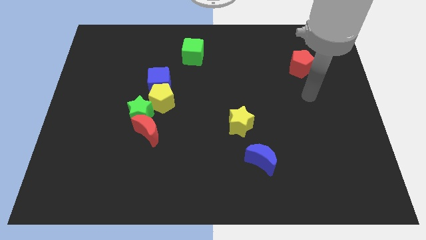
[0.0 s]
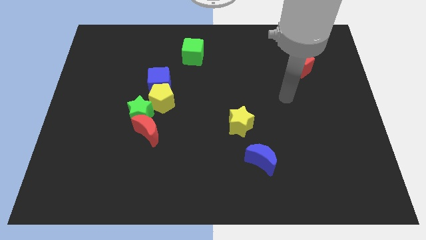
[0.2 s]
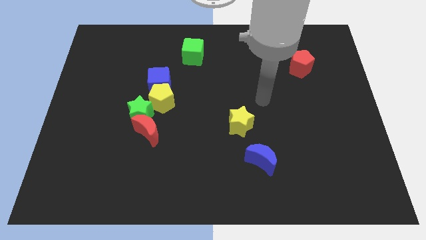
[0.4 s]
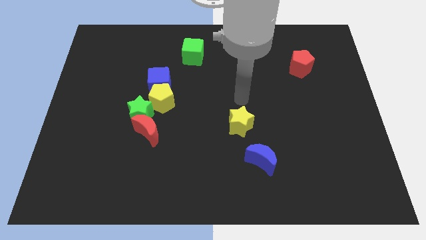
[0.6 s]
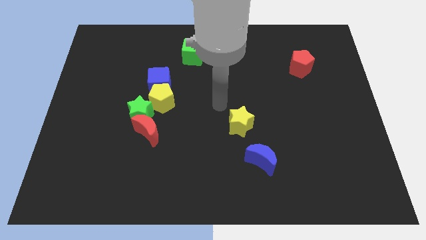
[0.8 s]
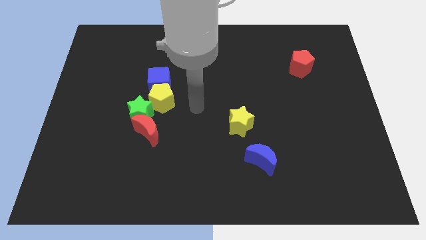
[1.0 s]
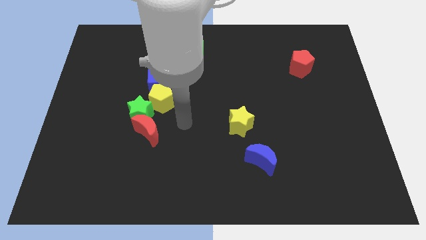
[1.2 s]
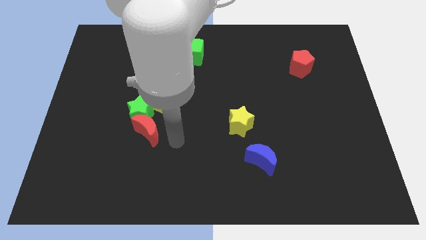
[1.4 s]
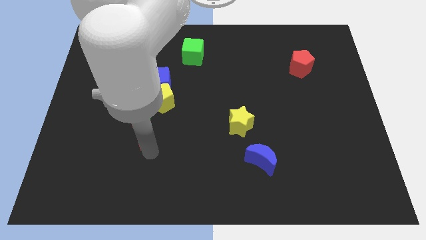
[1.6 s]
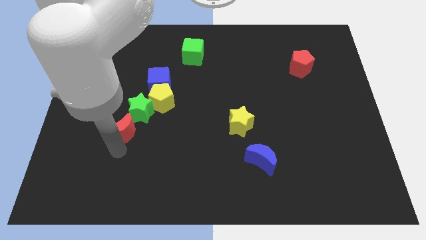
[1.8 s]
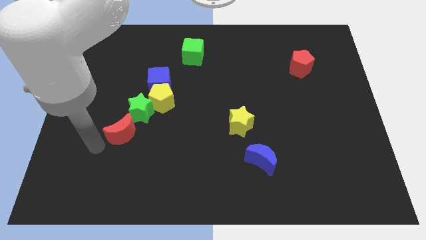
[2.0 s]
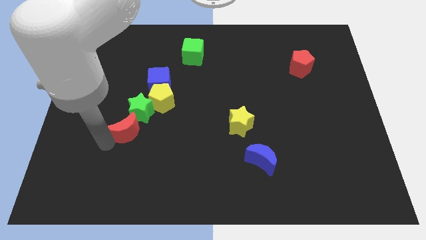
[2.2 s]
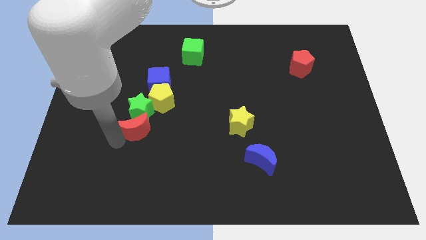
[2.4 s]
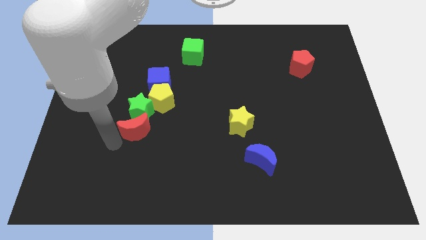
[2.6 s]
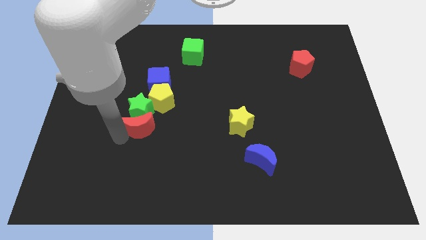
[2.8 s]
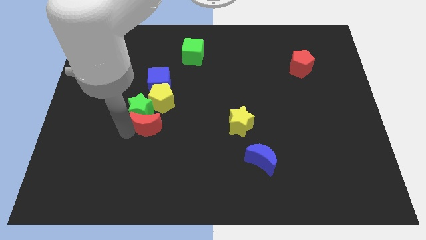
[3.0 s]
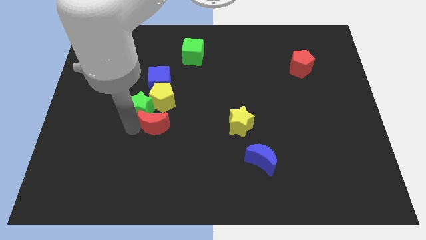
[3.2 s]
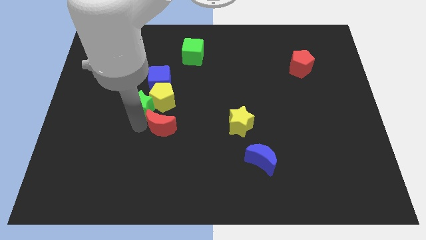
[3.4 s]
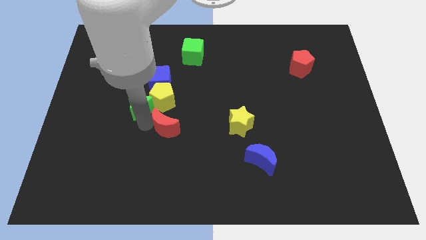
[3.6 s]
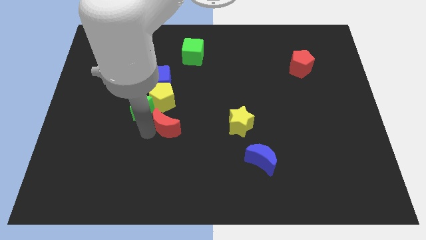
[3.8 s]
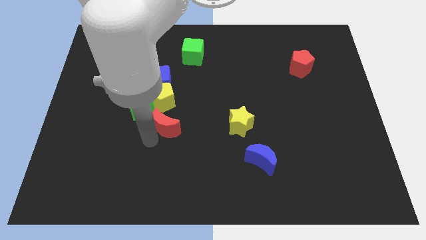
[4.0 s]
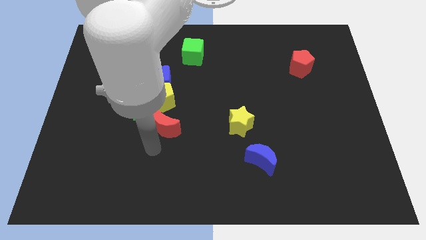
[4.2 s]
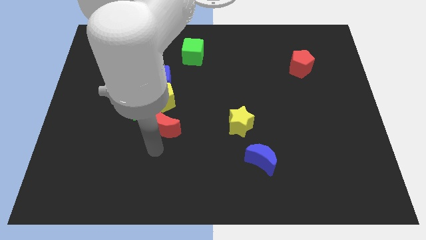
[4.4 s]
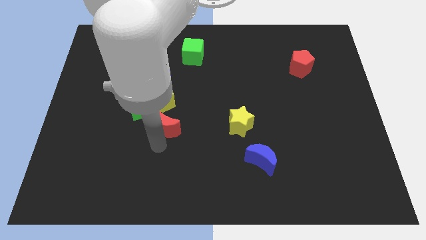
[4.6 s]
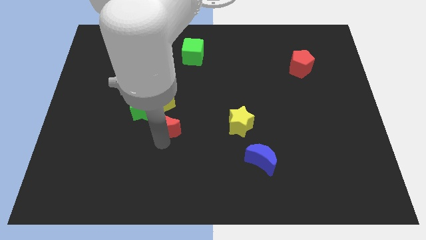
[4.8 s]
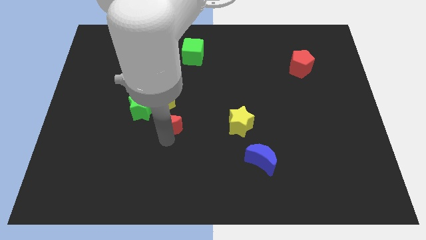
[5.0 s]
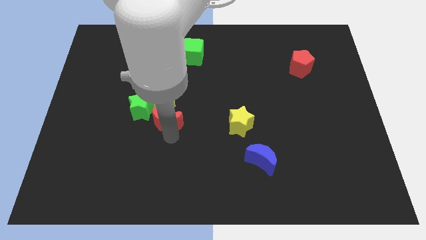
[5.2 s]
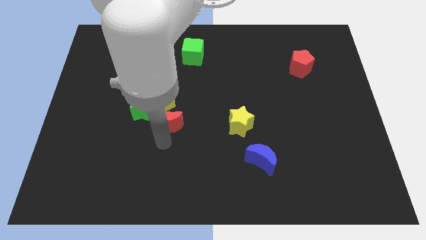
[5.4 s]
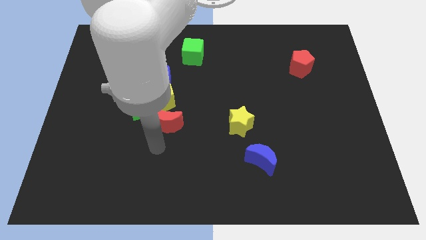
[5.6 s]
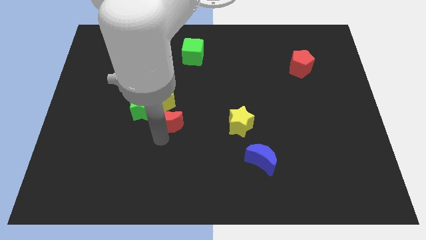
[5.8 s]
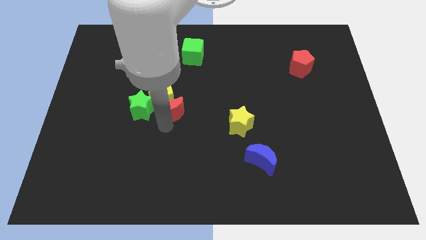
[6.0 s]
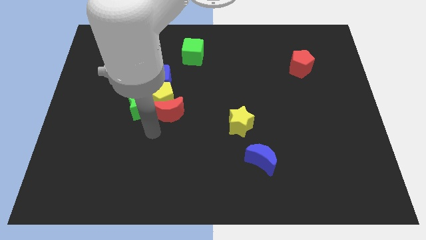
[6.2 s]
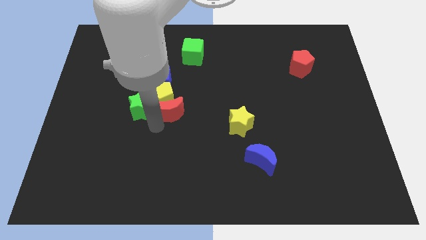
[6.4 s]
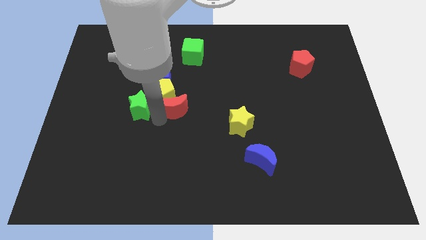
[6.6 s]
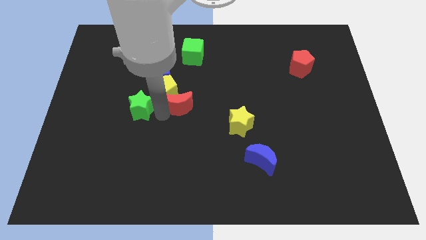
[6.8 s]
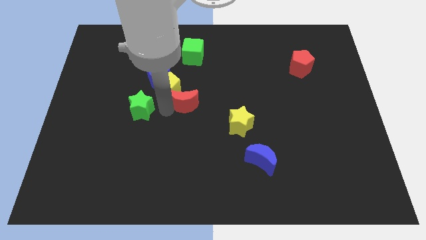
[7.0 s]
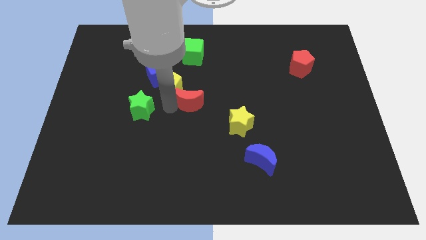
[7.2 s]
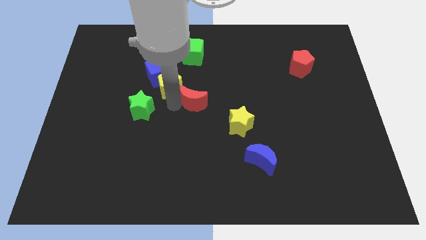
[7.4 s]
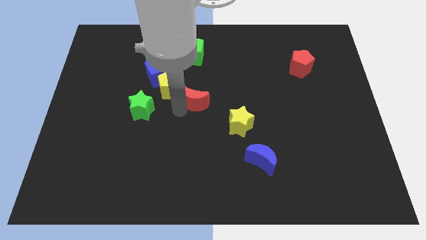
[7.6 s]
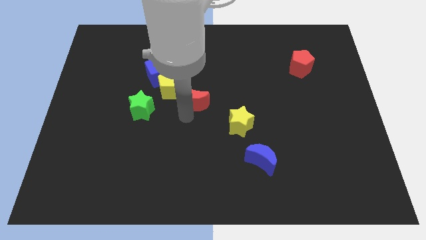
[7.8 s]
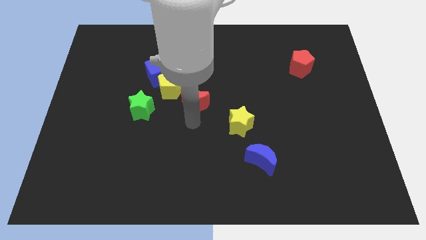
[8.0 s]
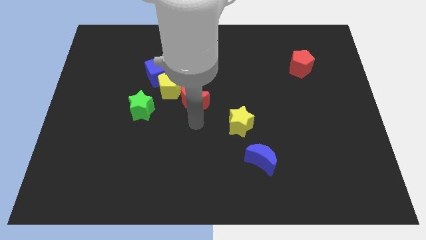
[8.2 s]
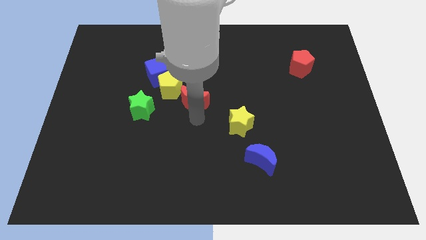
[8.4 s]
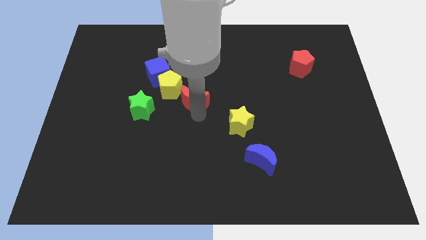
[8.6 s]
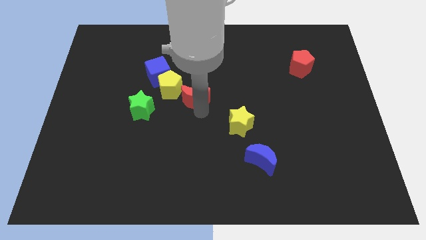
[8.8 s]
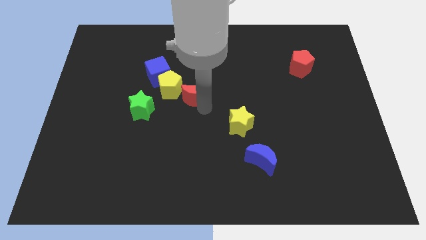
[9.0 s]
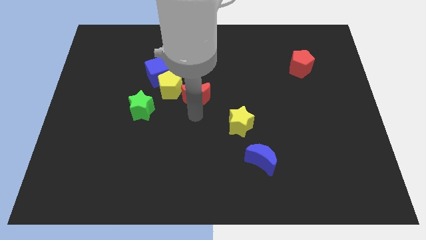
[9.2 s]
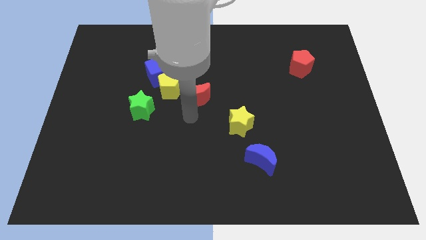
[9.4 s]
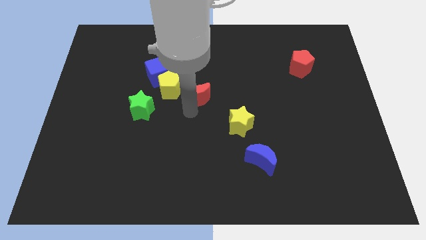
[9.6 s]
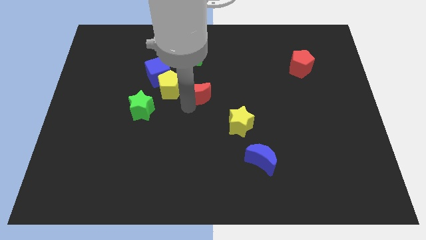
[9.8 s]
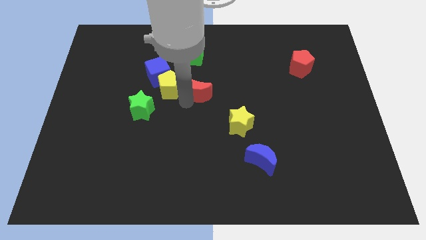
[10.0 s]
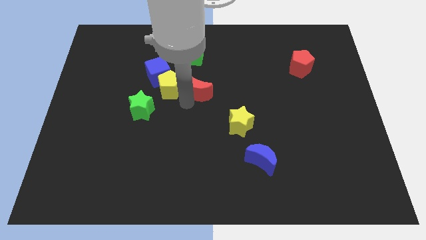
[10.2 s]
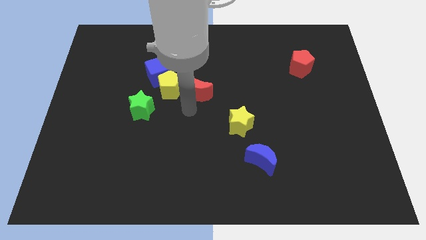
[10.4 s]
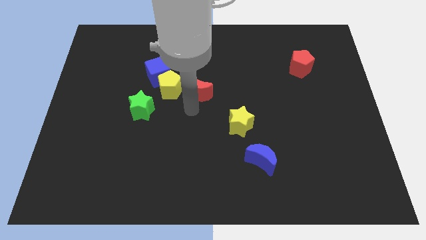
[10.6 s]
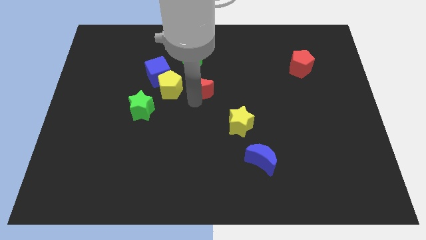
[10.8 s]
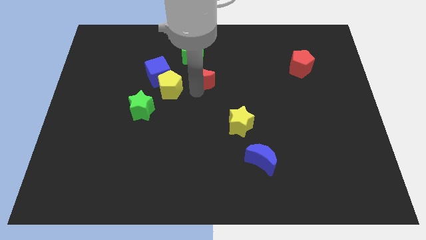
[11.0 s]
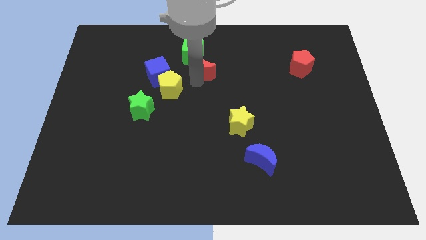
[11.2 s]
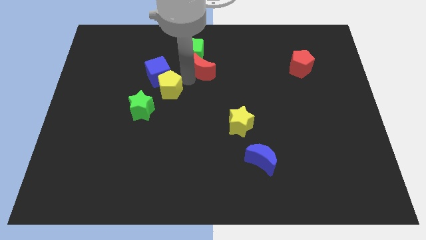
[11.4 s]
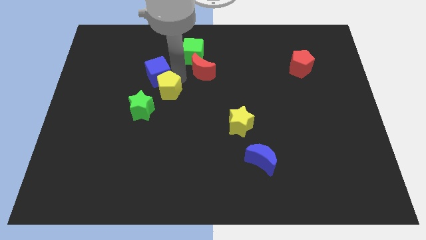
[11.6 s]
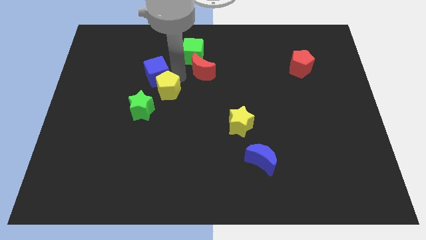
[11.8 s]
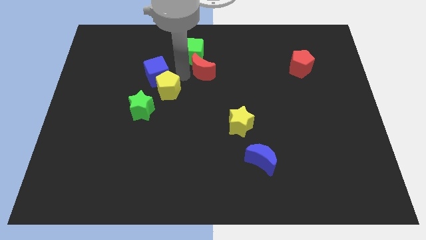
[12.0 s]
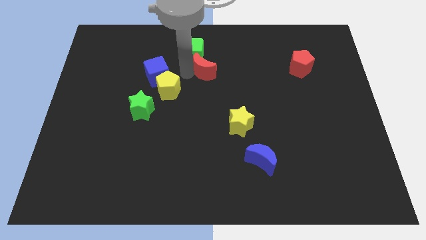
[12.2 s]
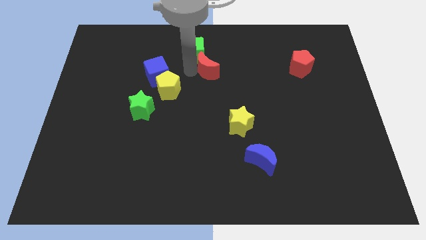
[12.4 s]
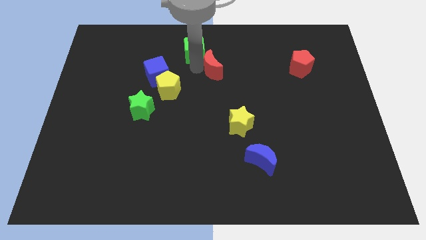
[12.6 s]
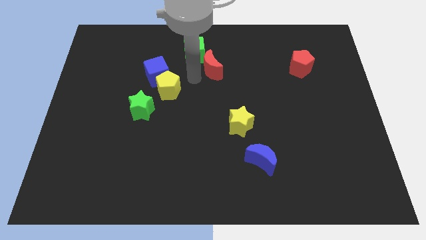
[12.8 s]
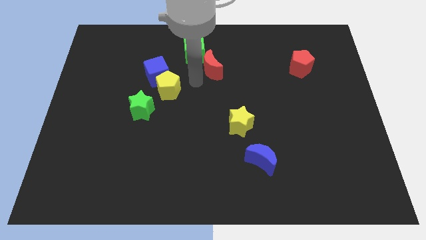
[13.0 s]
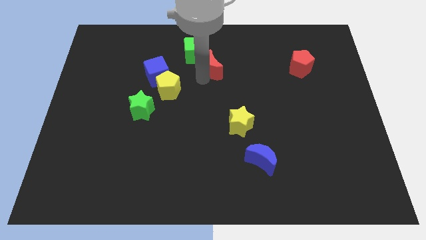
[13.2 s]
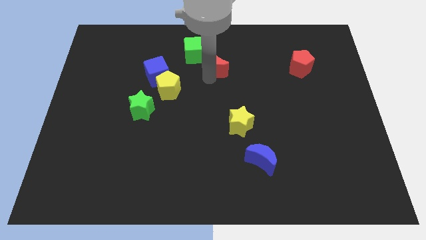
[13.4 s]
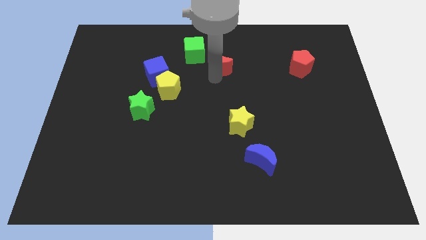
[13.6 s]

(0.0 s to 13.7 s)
move the red moon right of the green cube
